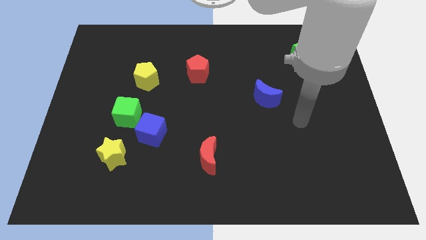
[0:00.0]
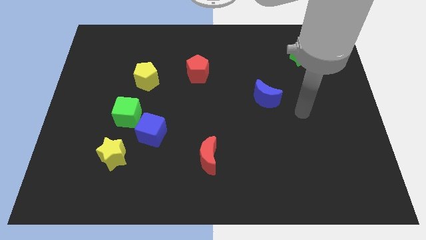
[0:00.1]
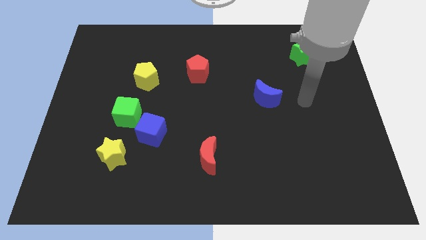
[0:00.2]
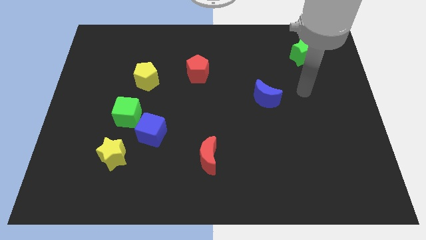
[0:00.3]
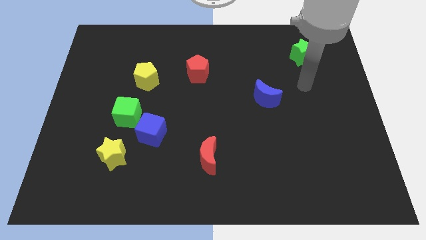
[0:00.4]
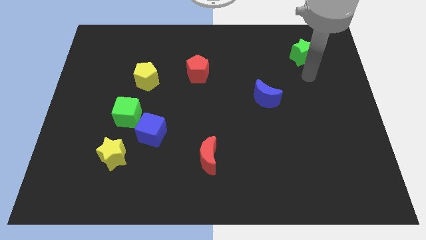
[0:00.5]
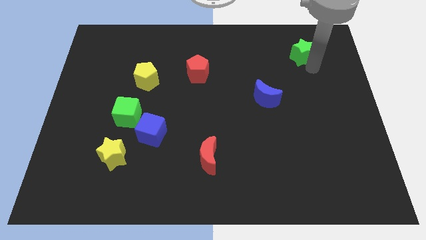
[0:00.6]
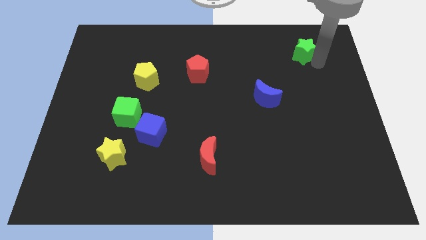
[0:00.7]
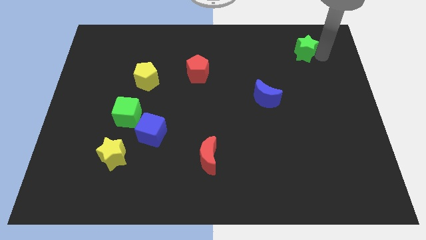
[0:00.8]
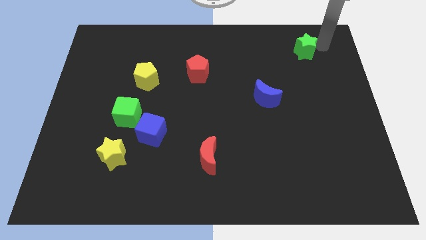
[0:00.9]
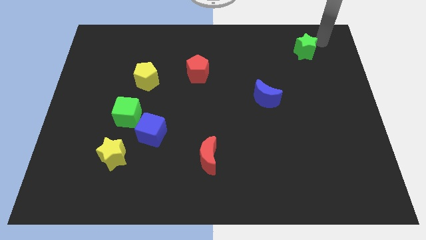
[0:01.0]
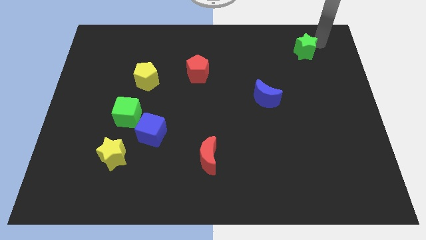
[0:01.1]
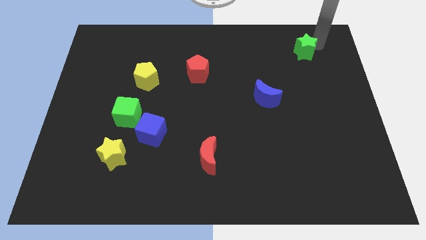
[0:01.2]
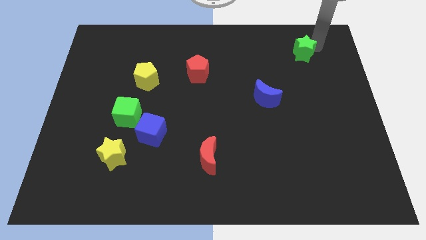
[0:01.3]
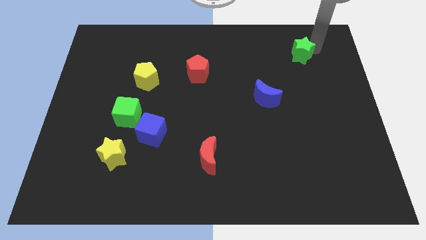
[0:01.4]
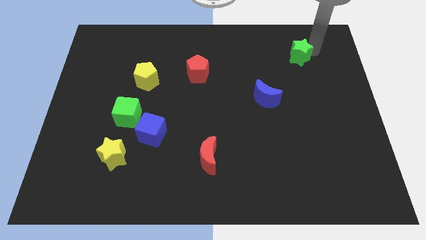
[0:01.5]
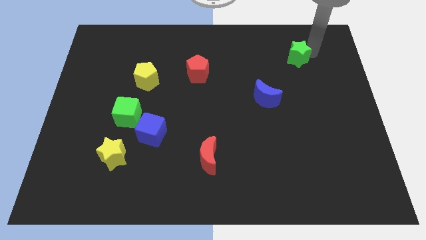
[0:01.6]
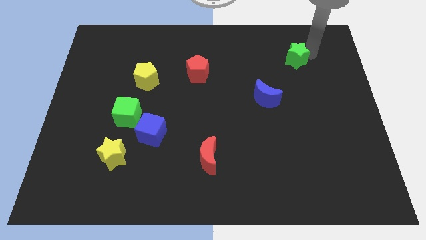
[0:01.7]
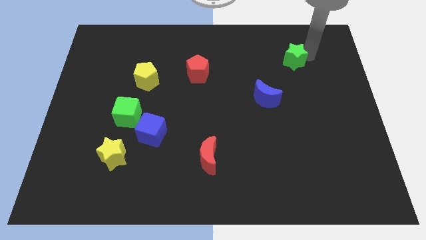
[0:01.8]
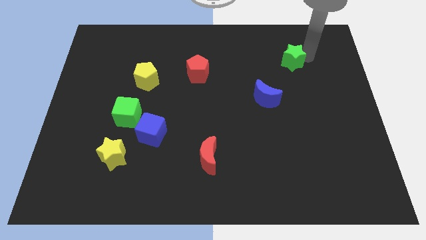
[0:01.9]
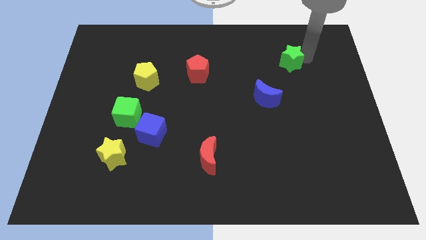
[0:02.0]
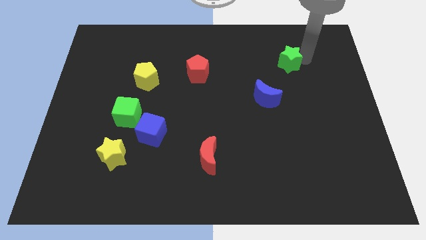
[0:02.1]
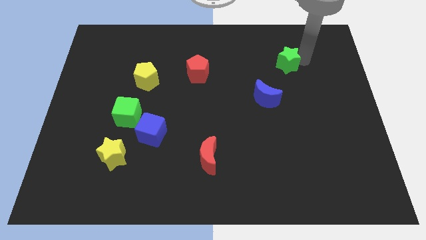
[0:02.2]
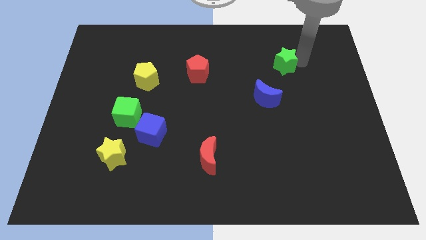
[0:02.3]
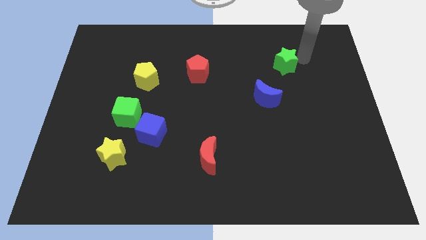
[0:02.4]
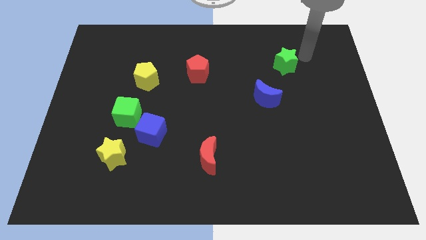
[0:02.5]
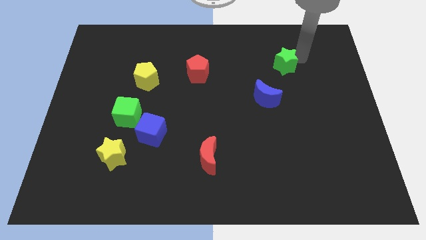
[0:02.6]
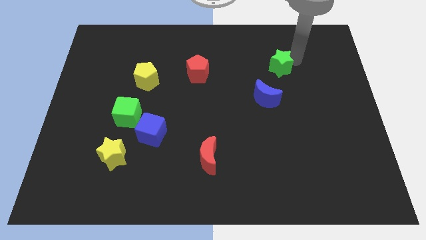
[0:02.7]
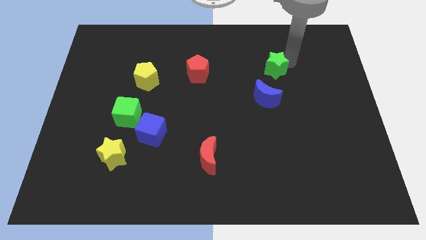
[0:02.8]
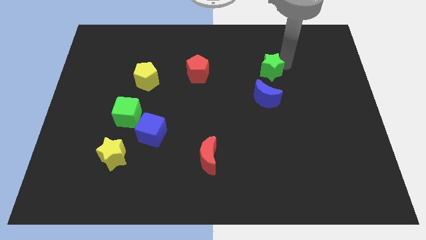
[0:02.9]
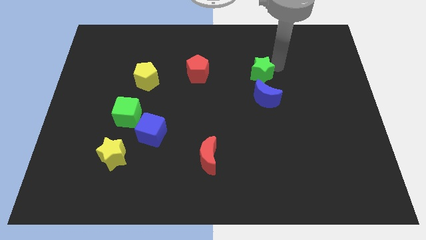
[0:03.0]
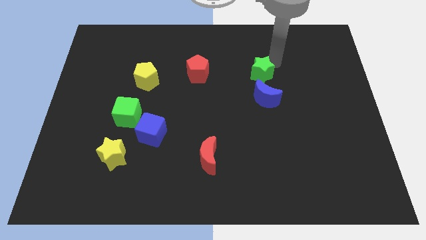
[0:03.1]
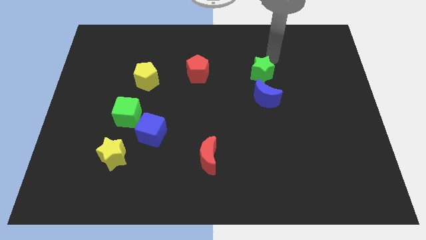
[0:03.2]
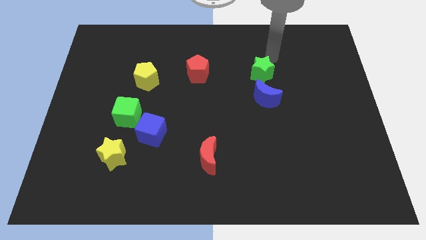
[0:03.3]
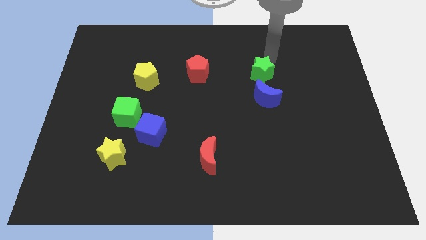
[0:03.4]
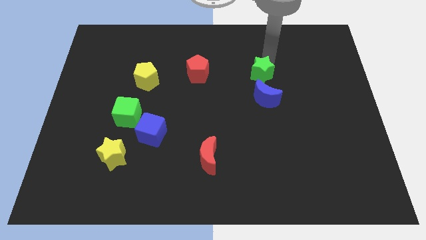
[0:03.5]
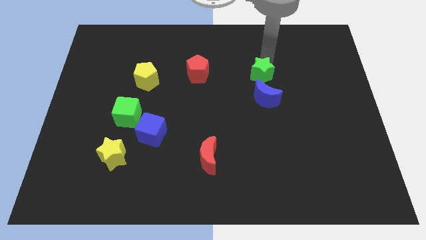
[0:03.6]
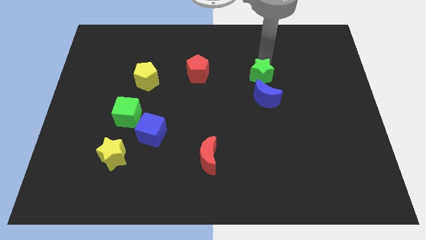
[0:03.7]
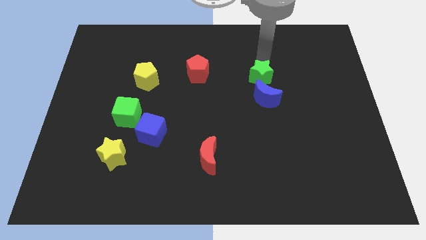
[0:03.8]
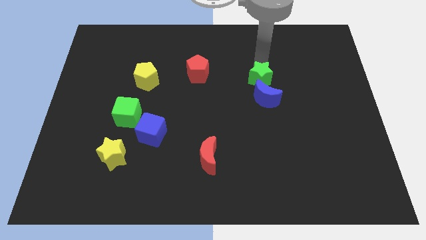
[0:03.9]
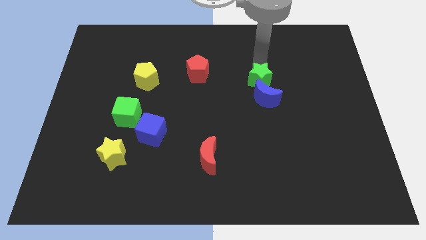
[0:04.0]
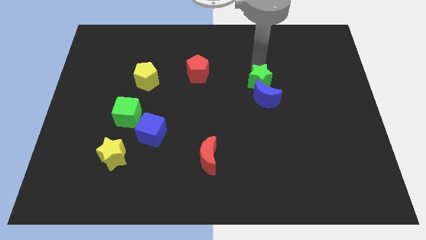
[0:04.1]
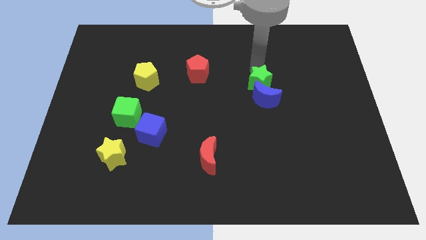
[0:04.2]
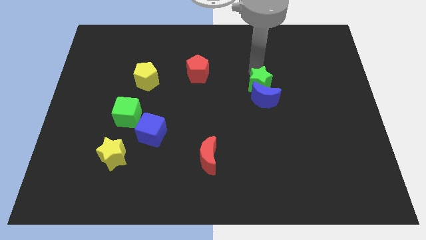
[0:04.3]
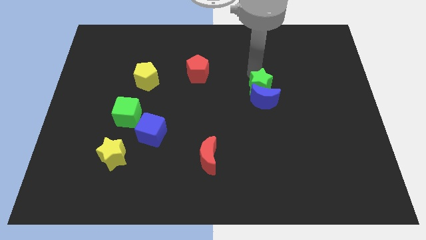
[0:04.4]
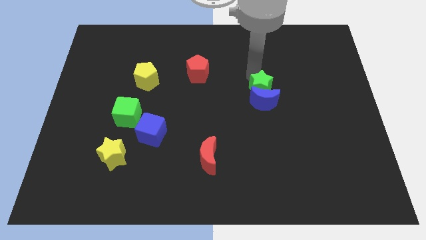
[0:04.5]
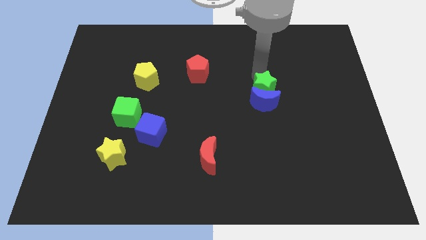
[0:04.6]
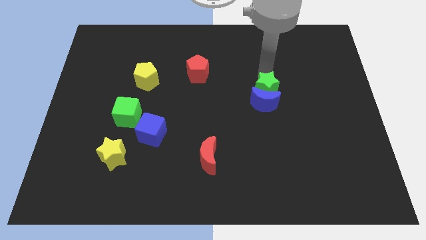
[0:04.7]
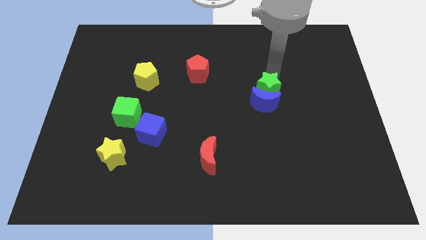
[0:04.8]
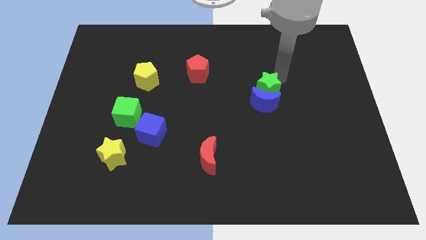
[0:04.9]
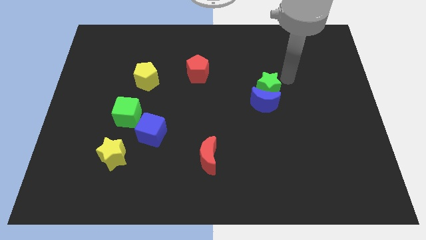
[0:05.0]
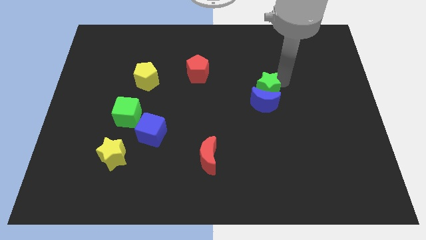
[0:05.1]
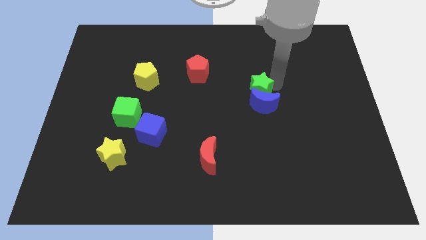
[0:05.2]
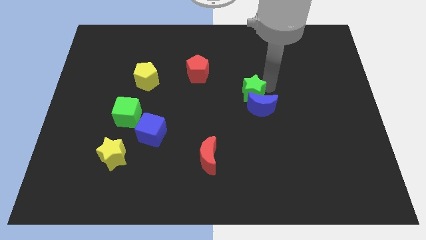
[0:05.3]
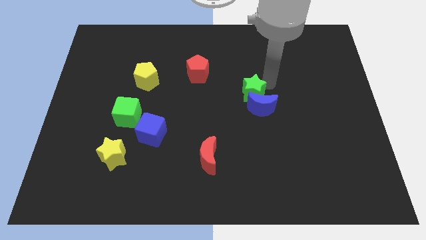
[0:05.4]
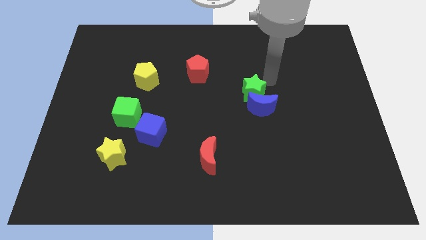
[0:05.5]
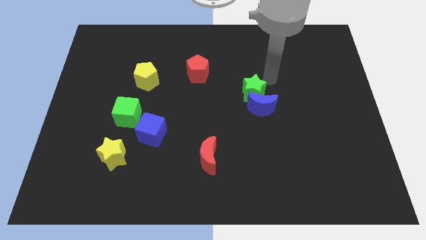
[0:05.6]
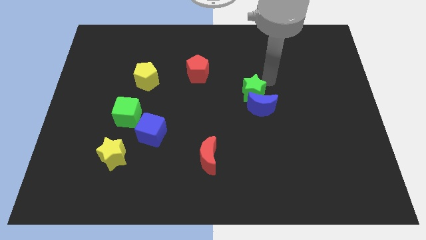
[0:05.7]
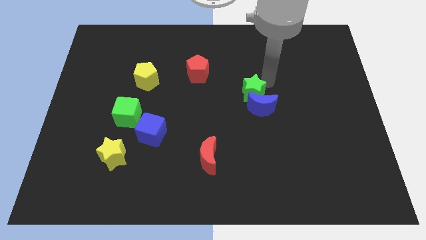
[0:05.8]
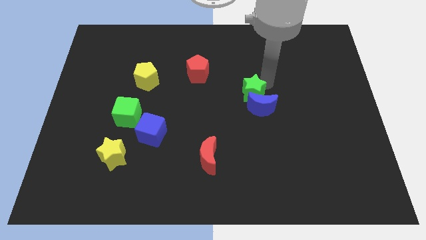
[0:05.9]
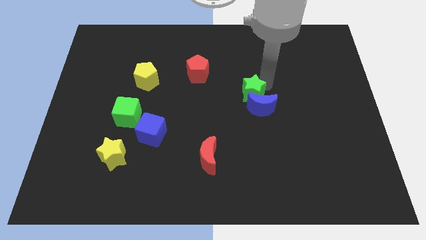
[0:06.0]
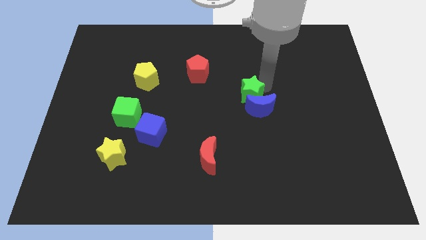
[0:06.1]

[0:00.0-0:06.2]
push the green star down and then to the left

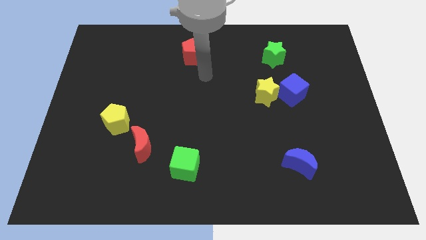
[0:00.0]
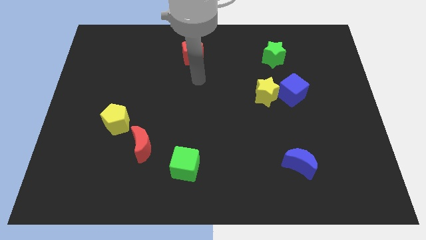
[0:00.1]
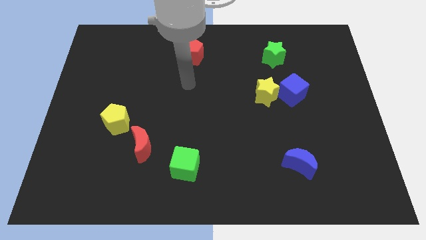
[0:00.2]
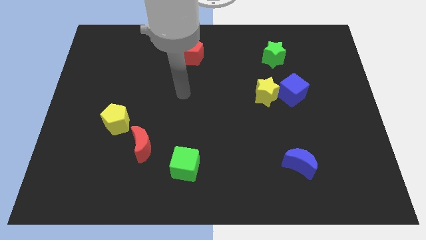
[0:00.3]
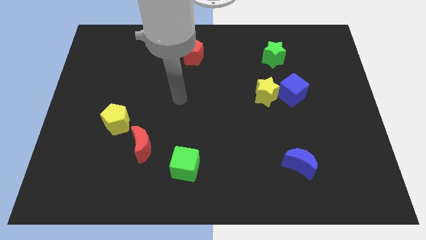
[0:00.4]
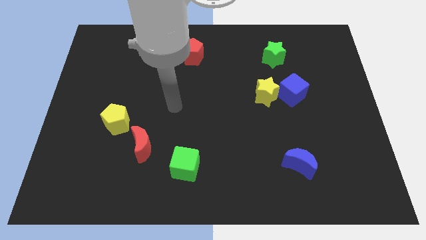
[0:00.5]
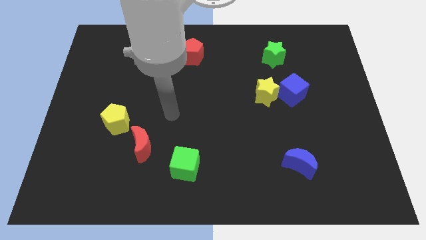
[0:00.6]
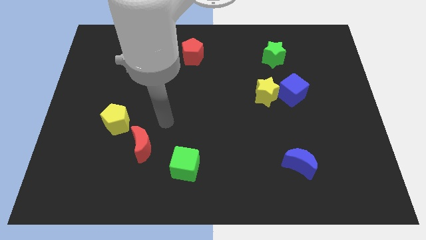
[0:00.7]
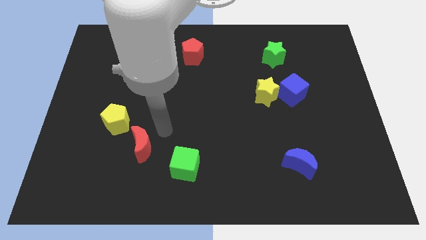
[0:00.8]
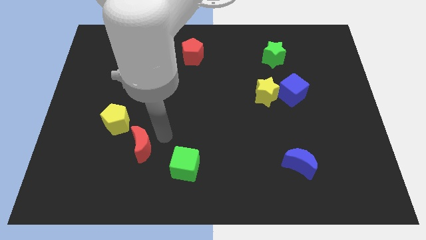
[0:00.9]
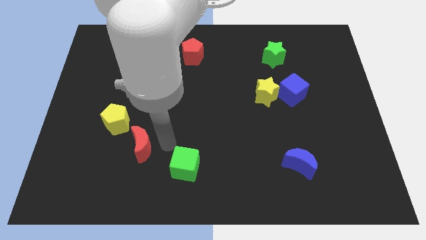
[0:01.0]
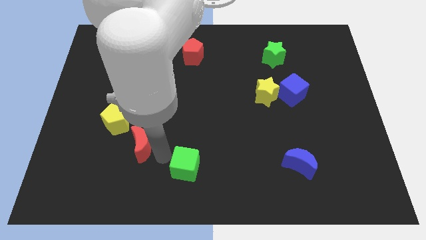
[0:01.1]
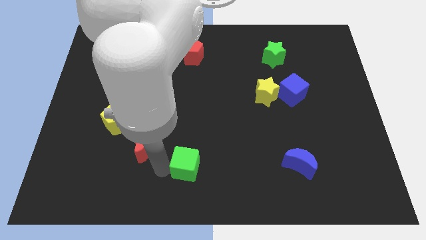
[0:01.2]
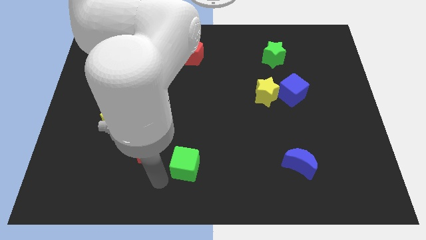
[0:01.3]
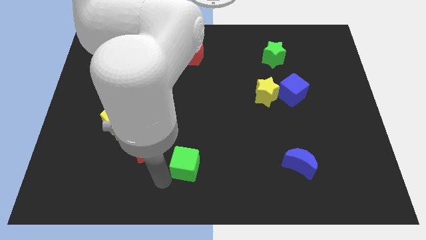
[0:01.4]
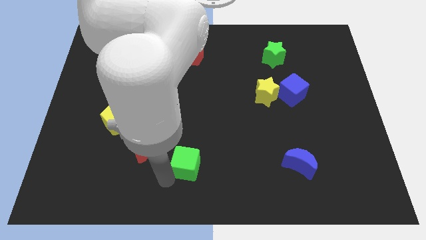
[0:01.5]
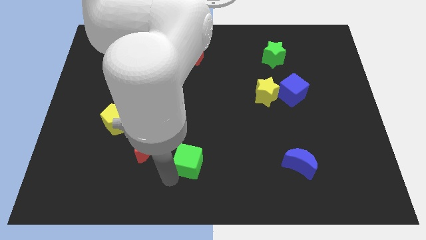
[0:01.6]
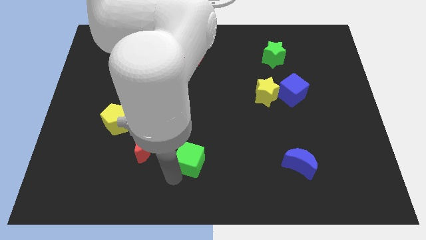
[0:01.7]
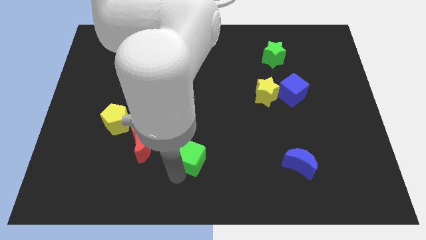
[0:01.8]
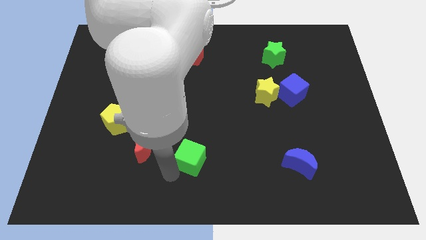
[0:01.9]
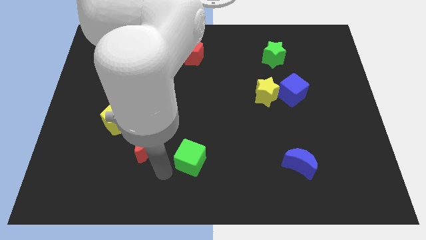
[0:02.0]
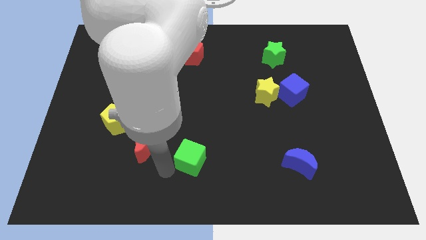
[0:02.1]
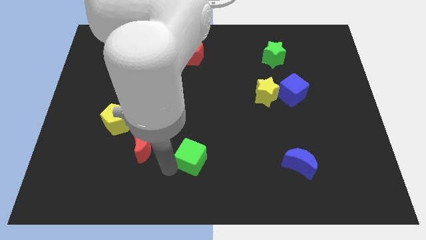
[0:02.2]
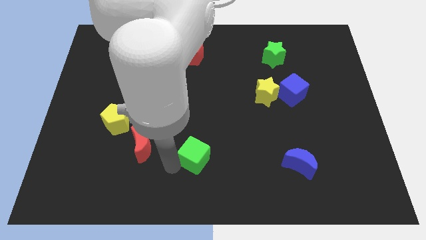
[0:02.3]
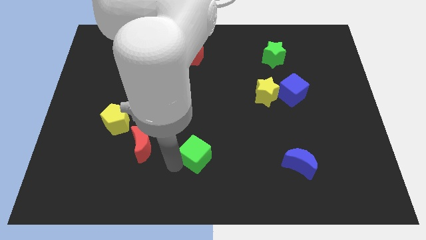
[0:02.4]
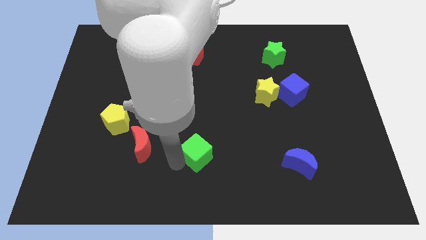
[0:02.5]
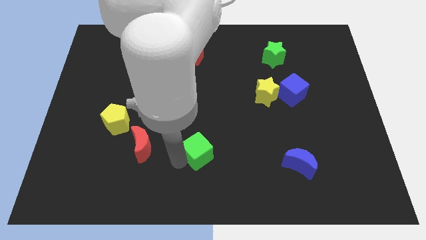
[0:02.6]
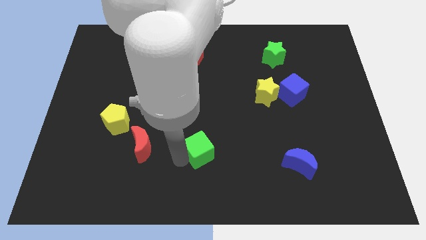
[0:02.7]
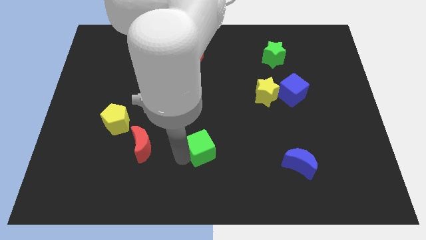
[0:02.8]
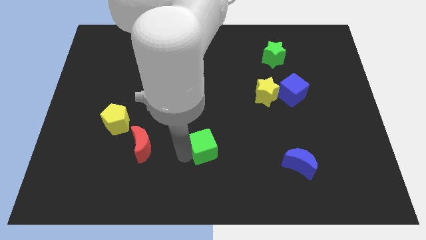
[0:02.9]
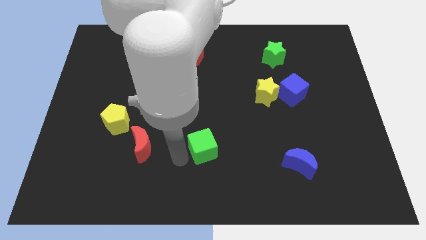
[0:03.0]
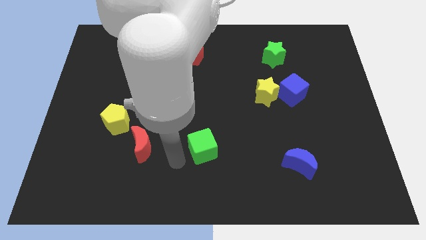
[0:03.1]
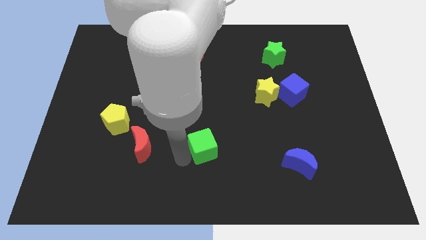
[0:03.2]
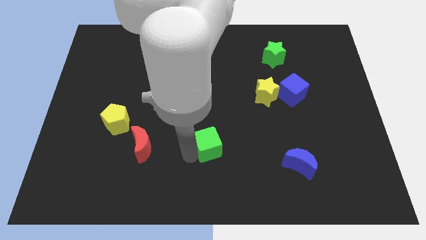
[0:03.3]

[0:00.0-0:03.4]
move the green cube a bit diagonally upwards and right
